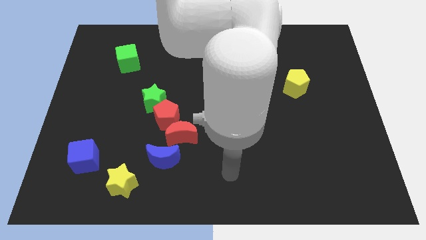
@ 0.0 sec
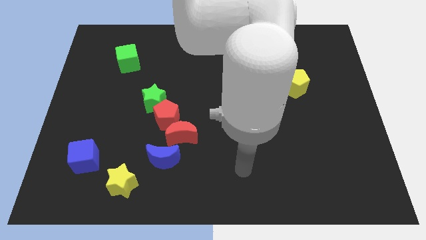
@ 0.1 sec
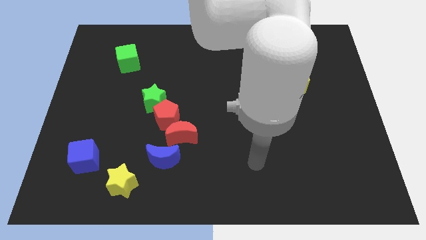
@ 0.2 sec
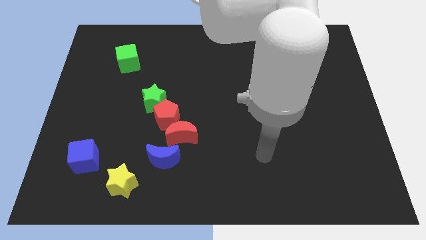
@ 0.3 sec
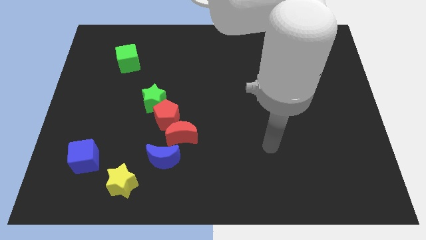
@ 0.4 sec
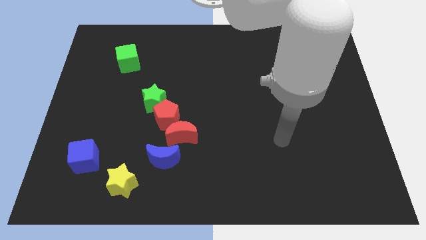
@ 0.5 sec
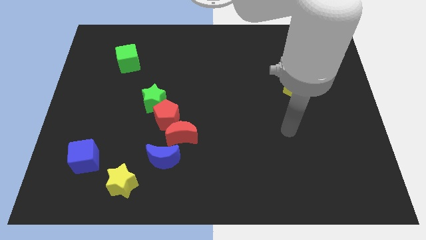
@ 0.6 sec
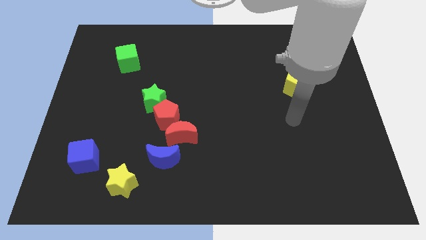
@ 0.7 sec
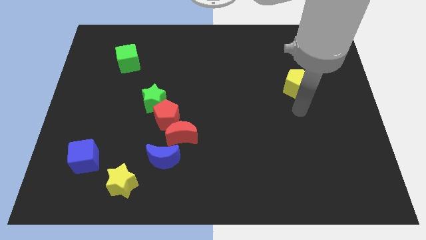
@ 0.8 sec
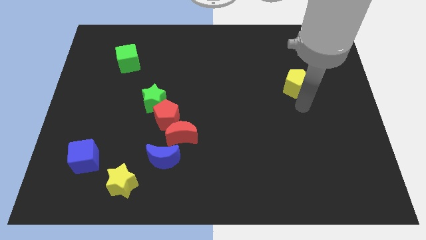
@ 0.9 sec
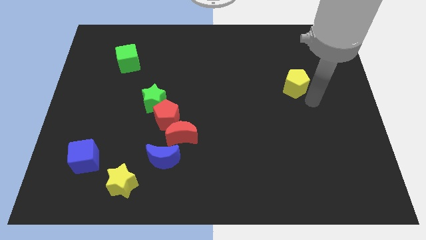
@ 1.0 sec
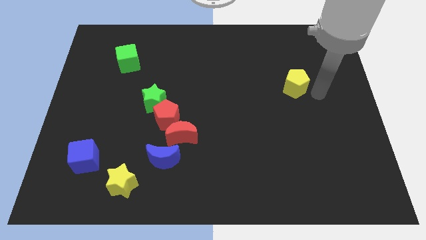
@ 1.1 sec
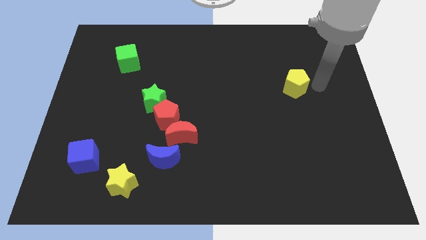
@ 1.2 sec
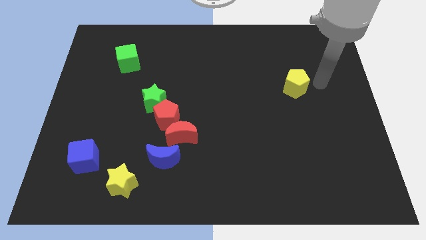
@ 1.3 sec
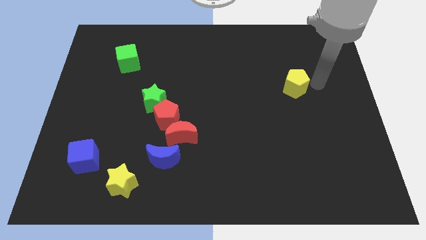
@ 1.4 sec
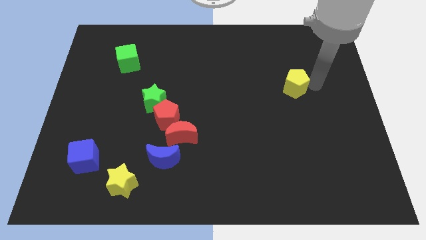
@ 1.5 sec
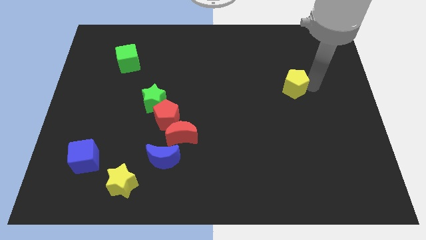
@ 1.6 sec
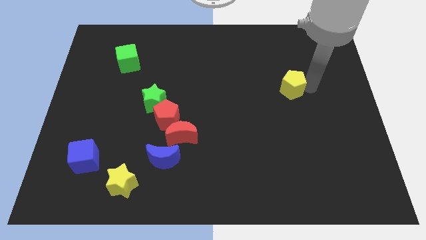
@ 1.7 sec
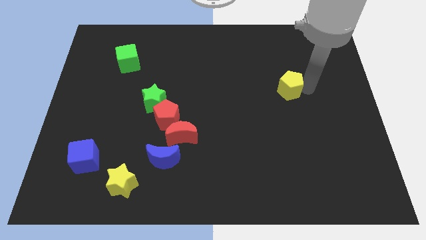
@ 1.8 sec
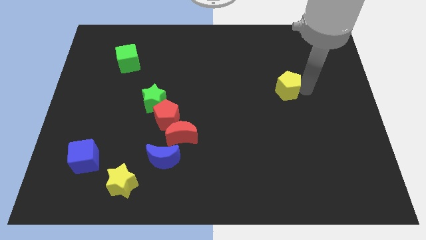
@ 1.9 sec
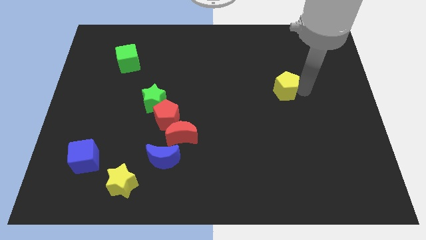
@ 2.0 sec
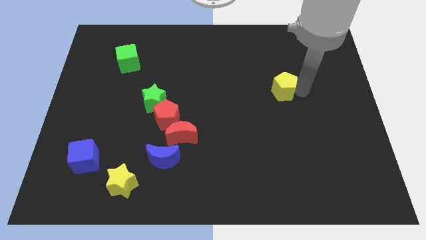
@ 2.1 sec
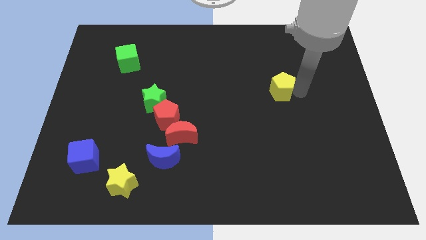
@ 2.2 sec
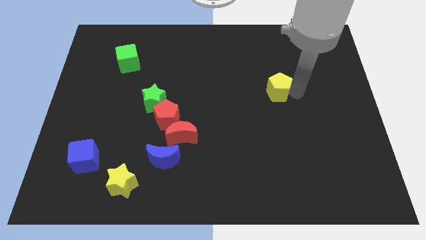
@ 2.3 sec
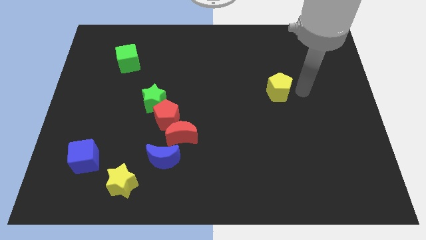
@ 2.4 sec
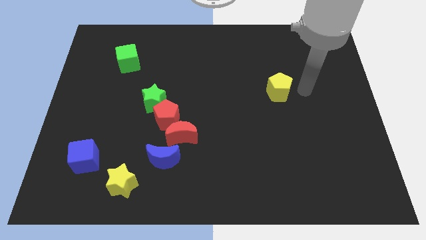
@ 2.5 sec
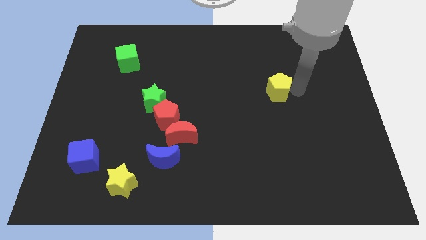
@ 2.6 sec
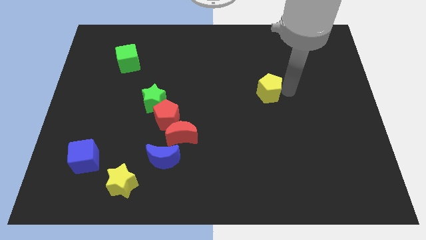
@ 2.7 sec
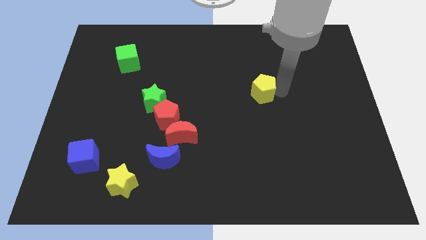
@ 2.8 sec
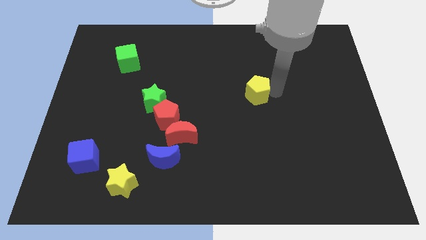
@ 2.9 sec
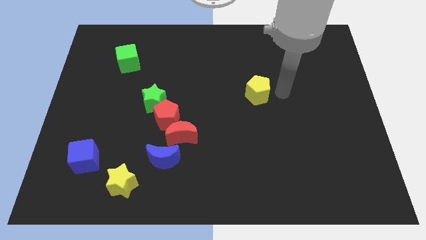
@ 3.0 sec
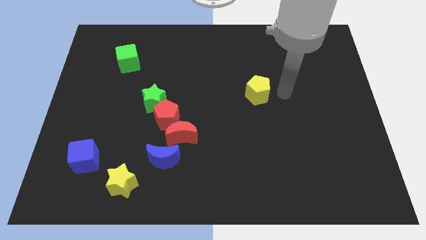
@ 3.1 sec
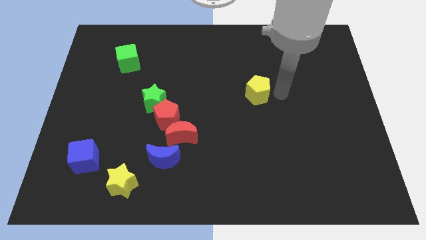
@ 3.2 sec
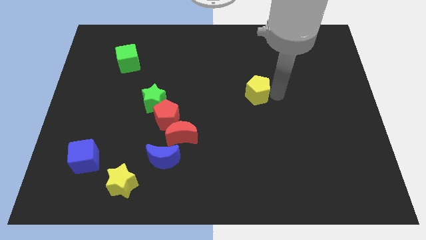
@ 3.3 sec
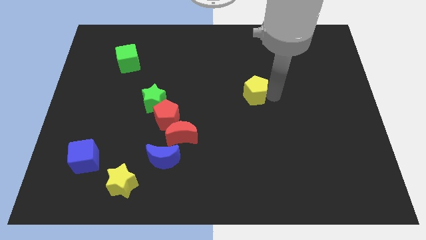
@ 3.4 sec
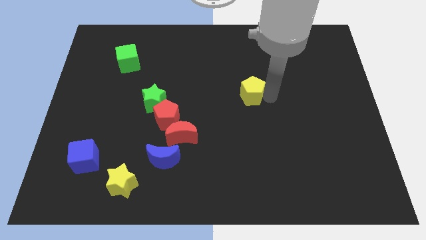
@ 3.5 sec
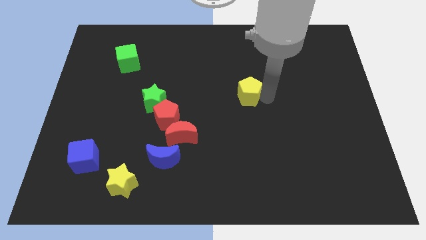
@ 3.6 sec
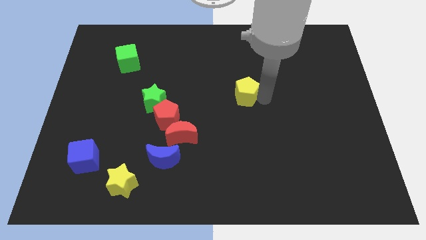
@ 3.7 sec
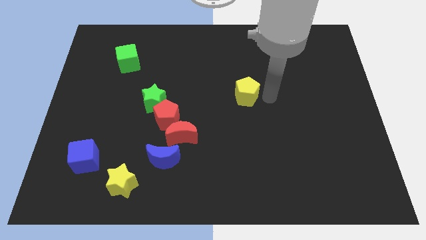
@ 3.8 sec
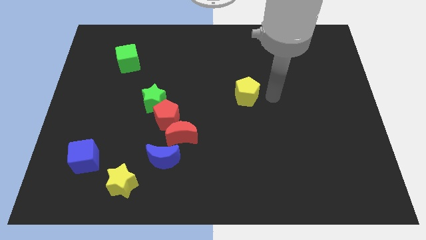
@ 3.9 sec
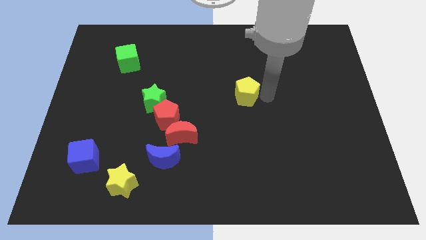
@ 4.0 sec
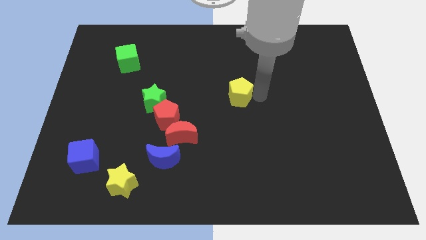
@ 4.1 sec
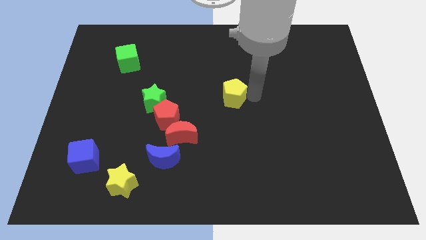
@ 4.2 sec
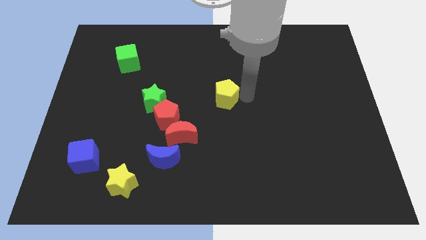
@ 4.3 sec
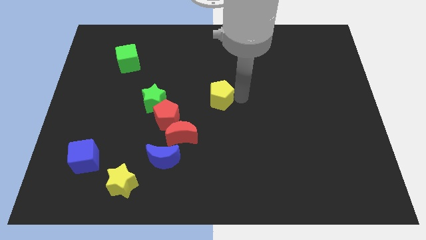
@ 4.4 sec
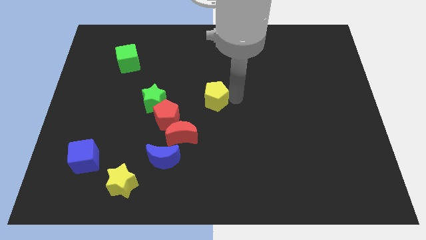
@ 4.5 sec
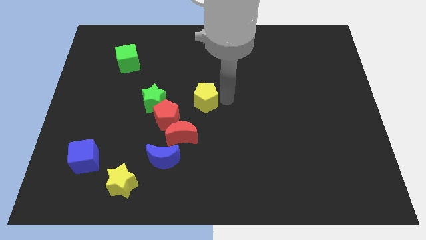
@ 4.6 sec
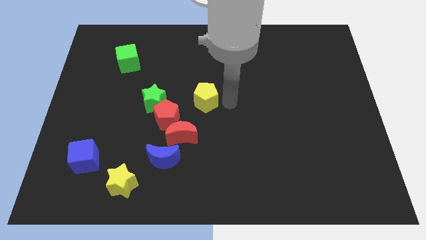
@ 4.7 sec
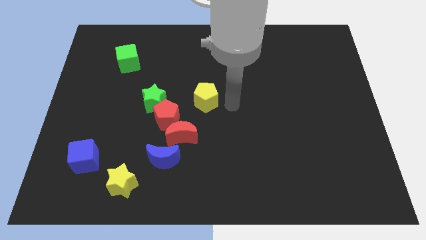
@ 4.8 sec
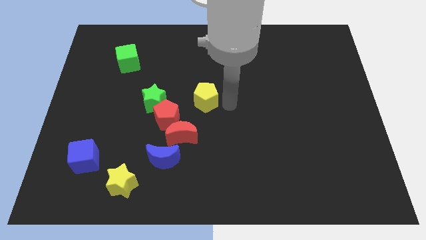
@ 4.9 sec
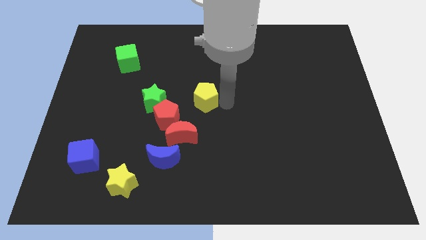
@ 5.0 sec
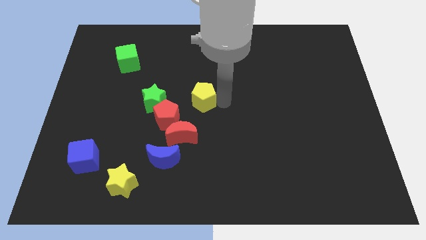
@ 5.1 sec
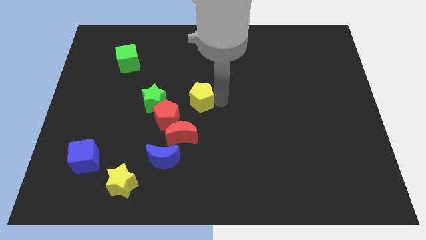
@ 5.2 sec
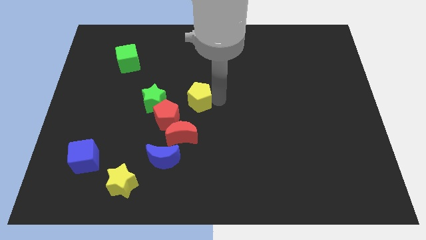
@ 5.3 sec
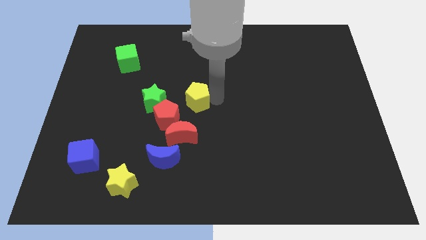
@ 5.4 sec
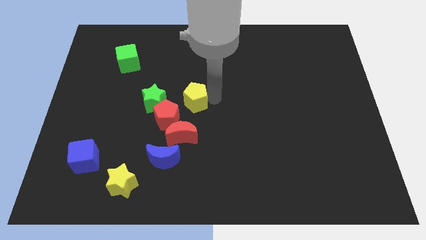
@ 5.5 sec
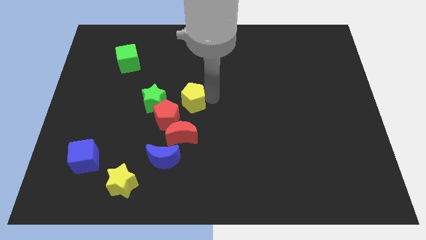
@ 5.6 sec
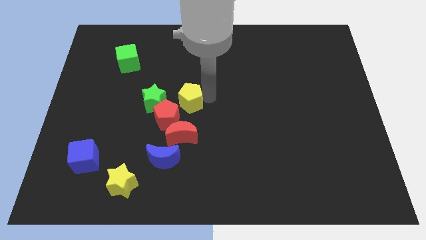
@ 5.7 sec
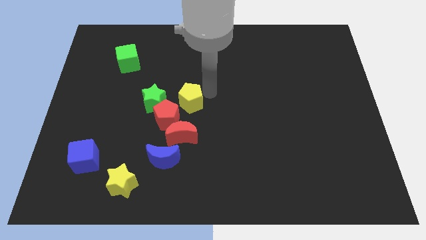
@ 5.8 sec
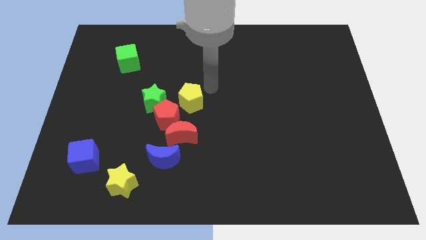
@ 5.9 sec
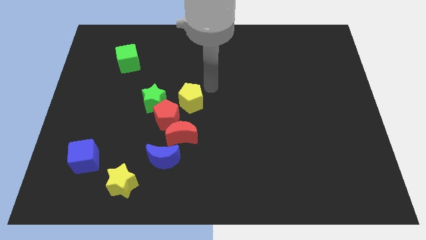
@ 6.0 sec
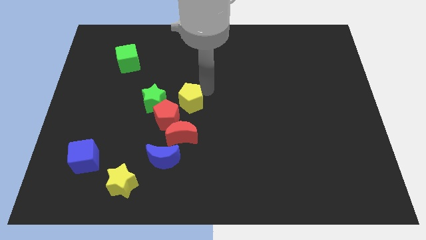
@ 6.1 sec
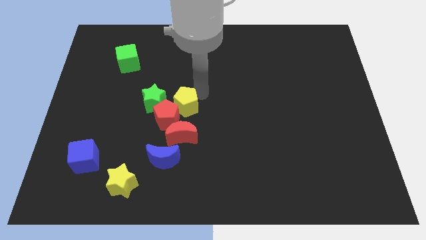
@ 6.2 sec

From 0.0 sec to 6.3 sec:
push the yellow pentagon towards the red pentagon

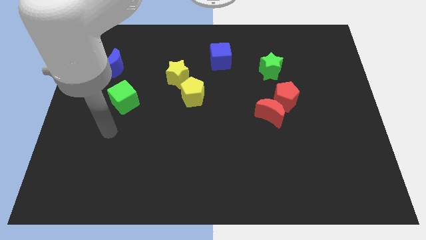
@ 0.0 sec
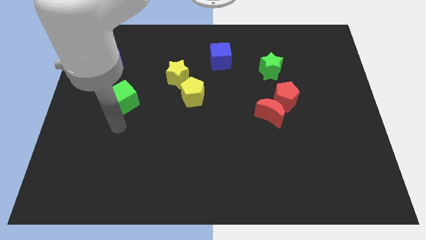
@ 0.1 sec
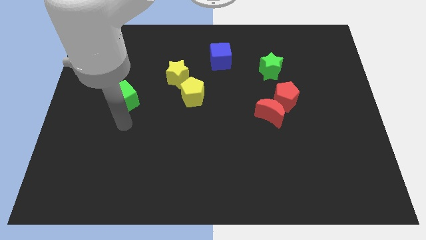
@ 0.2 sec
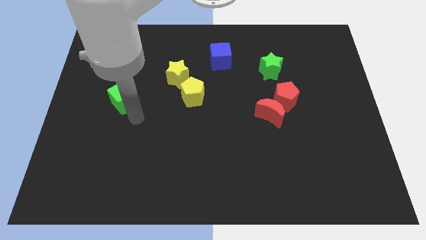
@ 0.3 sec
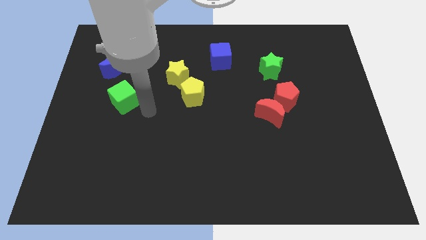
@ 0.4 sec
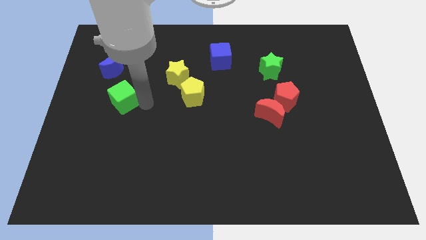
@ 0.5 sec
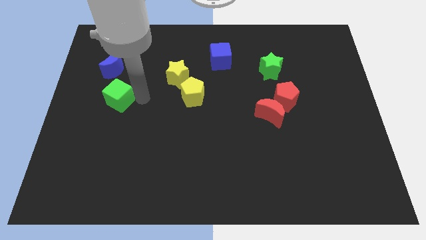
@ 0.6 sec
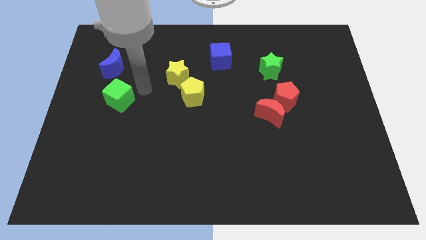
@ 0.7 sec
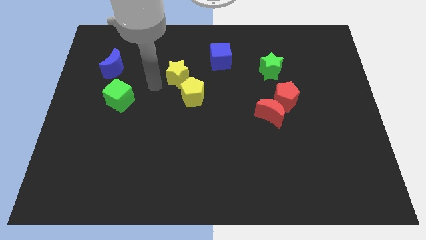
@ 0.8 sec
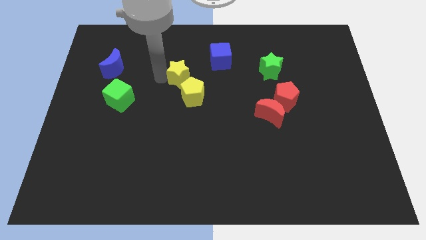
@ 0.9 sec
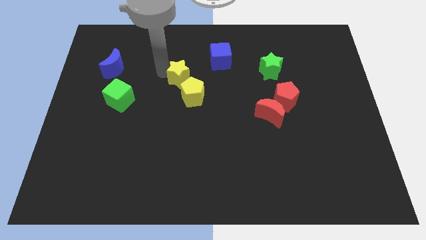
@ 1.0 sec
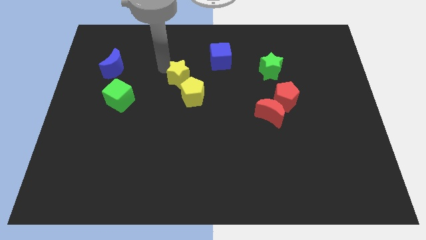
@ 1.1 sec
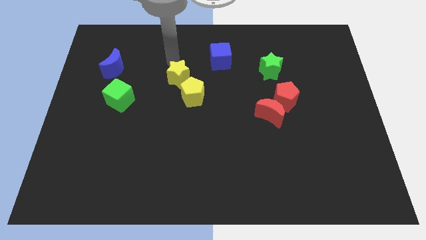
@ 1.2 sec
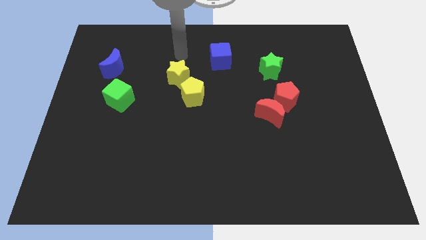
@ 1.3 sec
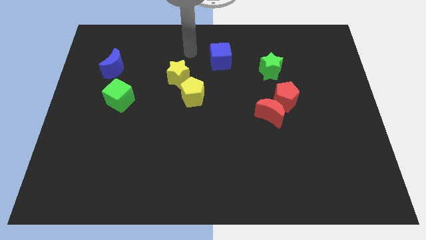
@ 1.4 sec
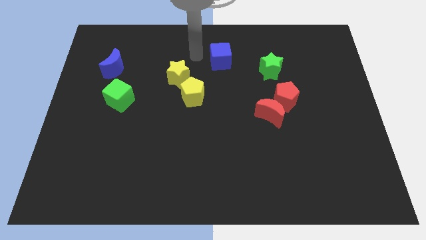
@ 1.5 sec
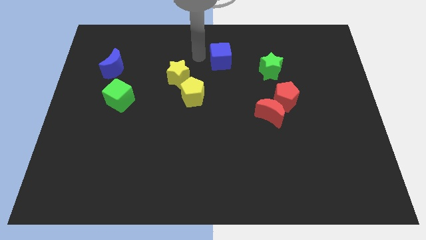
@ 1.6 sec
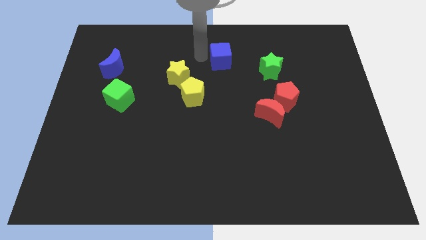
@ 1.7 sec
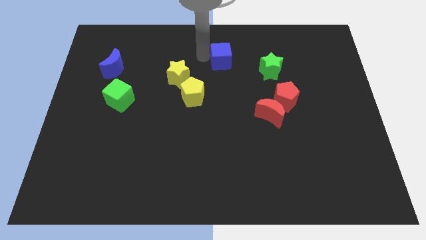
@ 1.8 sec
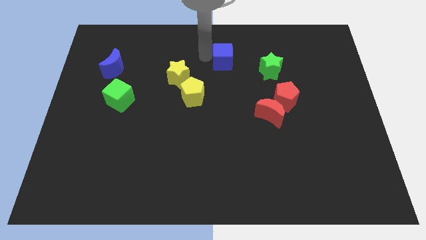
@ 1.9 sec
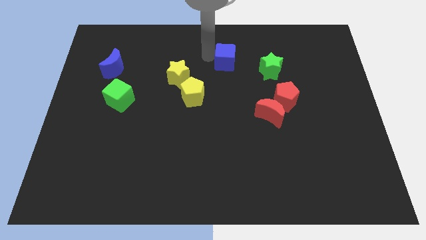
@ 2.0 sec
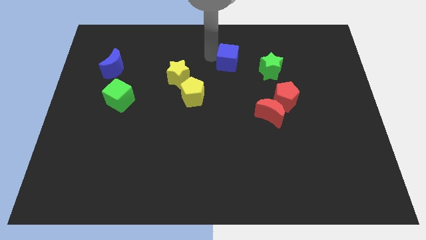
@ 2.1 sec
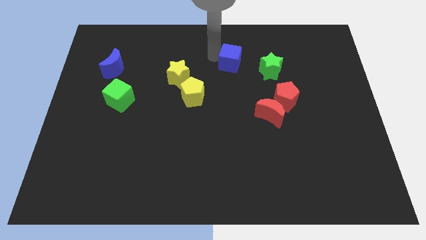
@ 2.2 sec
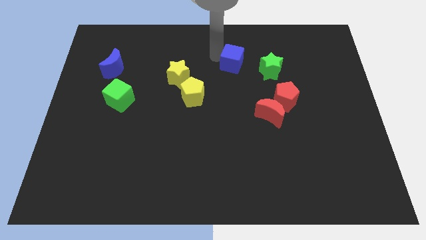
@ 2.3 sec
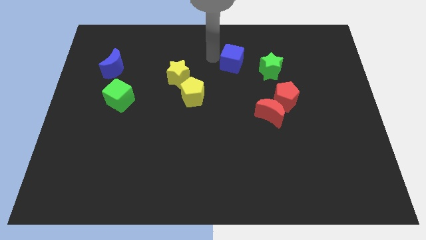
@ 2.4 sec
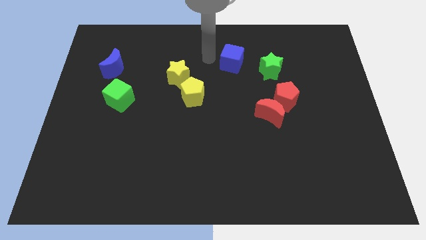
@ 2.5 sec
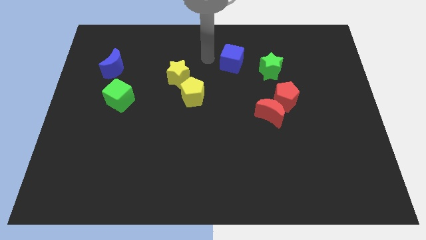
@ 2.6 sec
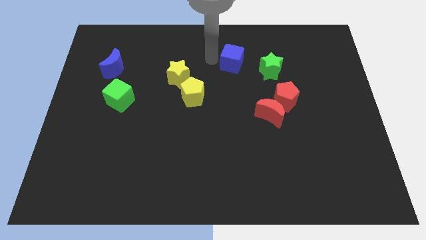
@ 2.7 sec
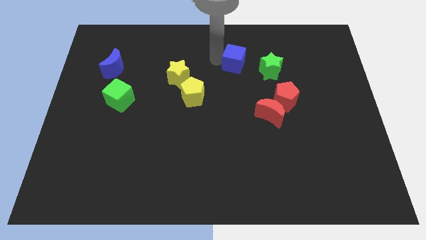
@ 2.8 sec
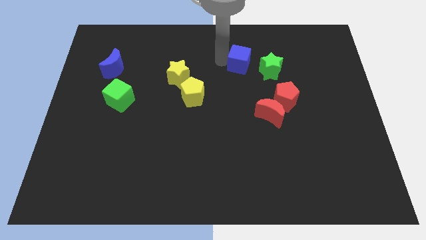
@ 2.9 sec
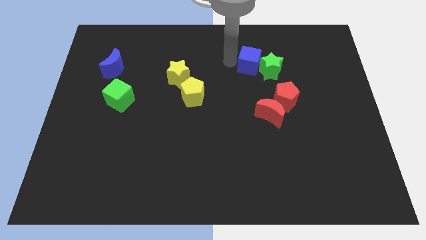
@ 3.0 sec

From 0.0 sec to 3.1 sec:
slide the blue cube to the green star
